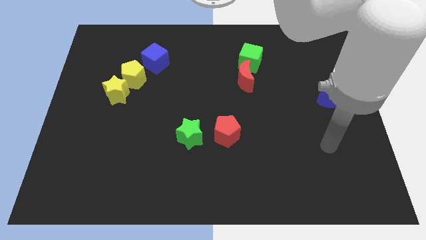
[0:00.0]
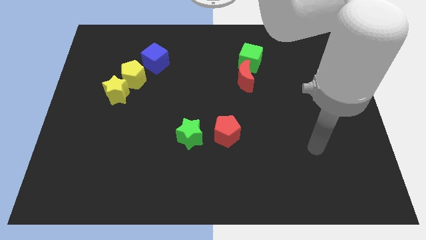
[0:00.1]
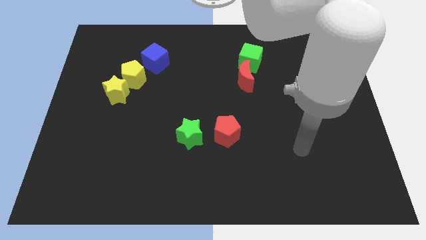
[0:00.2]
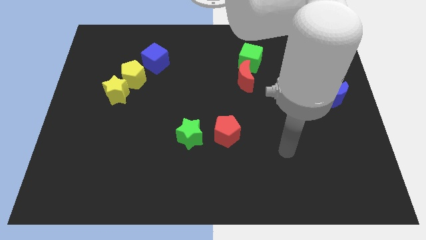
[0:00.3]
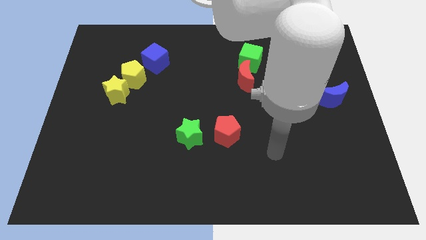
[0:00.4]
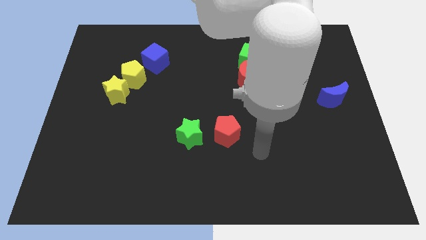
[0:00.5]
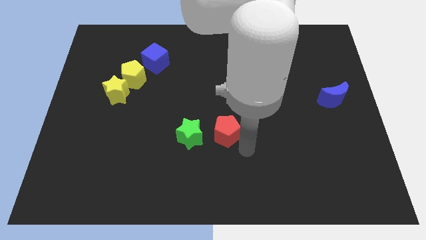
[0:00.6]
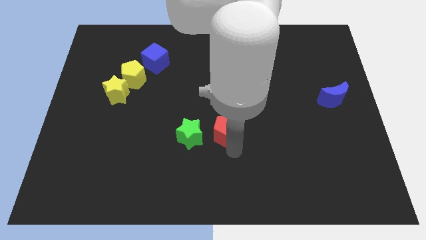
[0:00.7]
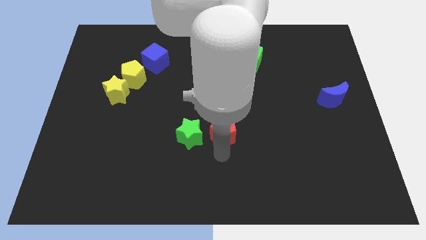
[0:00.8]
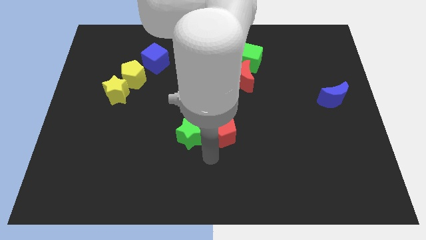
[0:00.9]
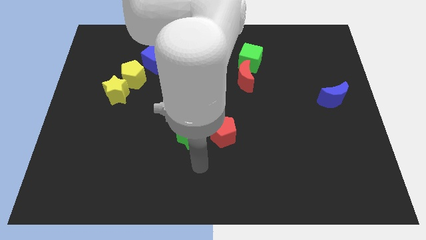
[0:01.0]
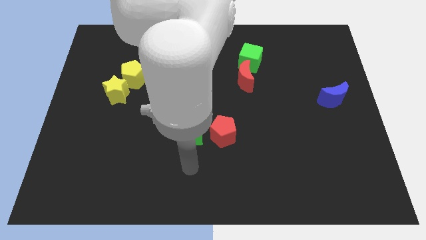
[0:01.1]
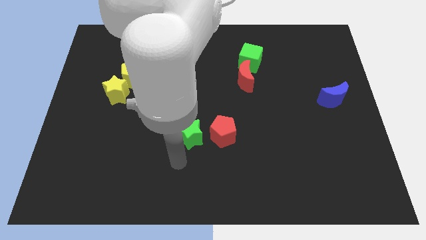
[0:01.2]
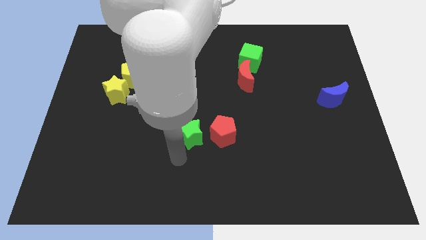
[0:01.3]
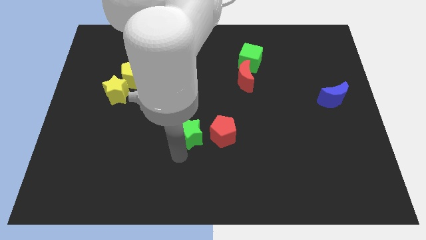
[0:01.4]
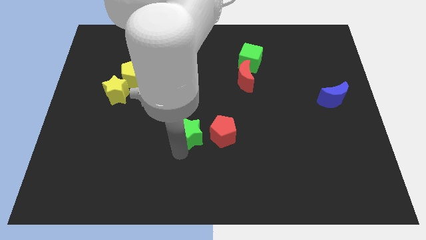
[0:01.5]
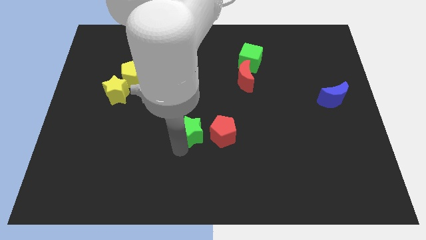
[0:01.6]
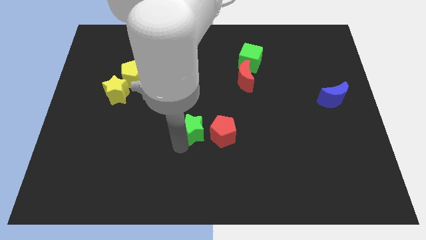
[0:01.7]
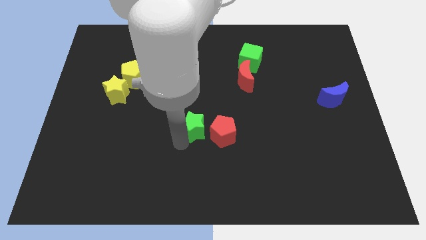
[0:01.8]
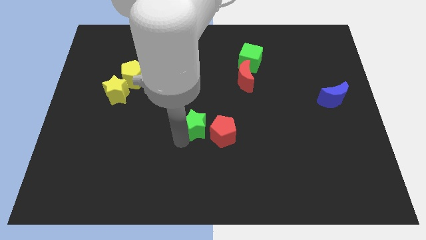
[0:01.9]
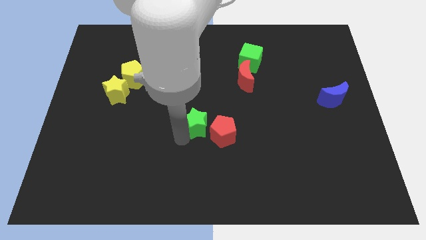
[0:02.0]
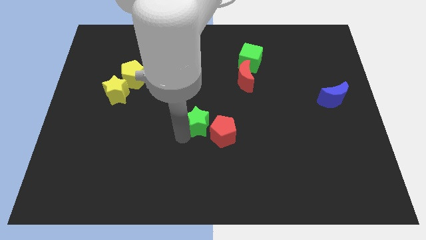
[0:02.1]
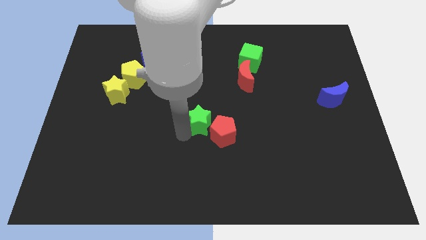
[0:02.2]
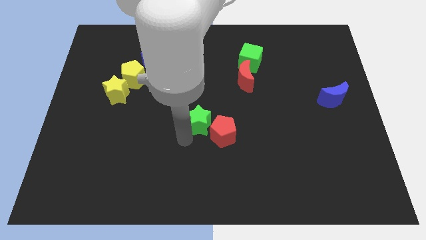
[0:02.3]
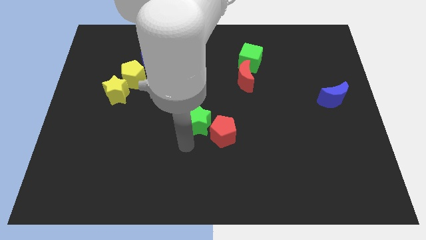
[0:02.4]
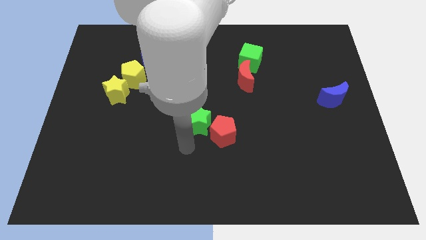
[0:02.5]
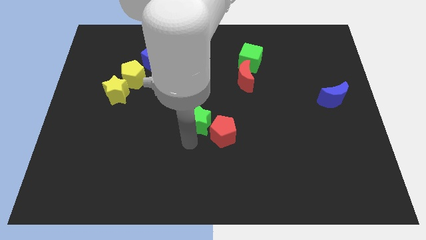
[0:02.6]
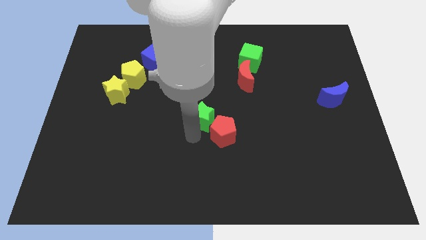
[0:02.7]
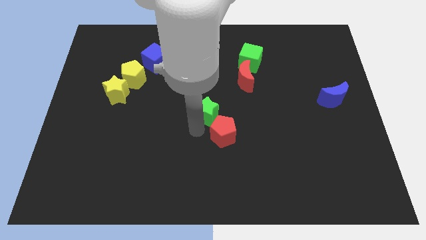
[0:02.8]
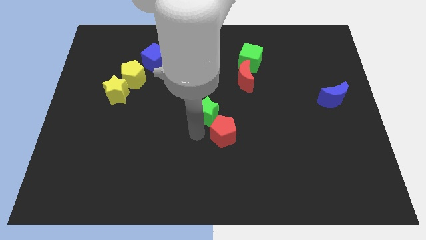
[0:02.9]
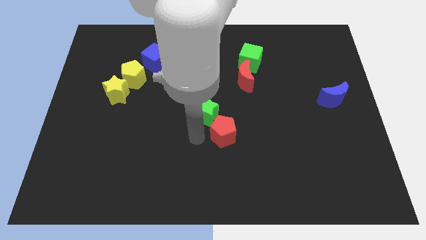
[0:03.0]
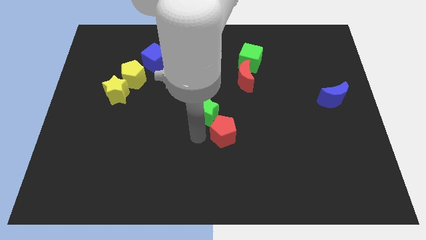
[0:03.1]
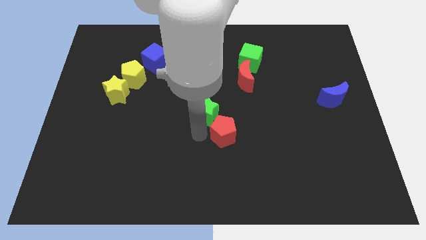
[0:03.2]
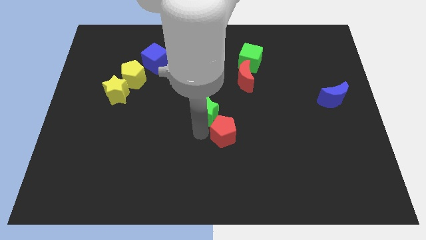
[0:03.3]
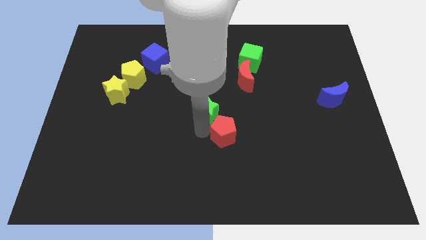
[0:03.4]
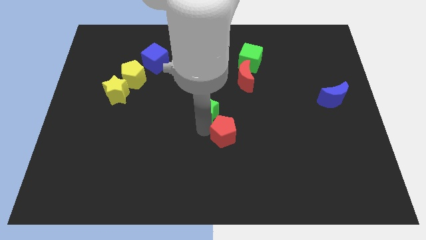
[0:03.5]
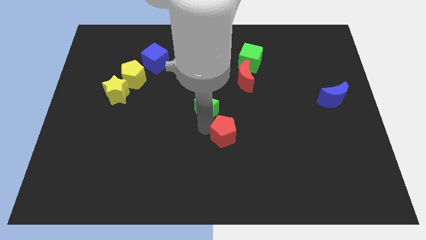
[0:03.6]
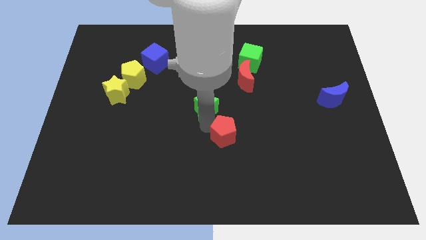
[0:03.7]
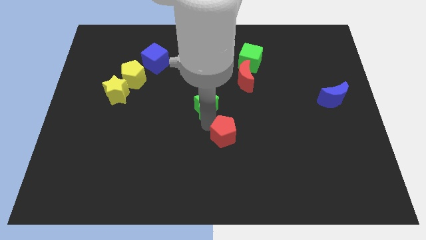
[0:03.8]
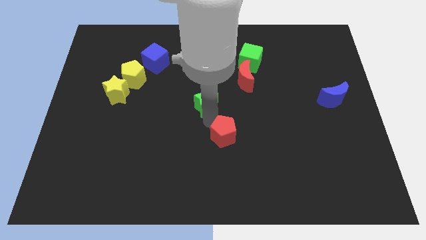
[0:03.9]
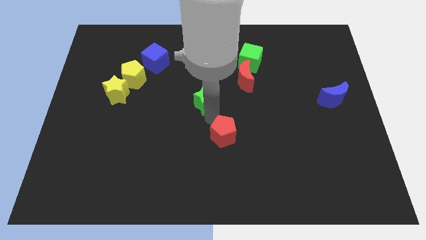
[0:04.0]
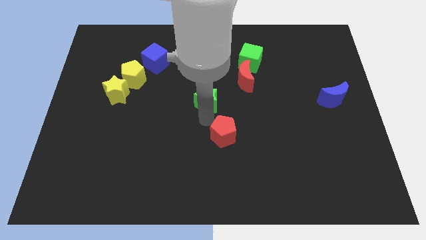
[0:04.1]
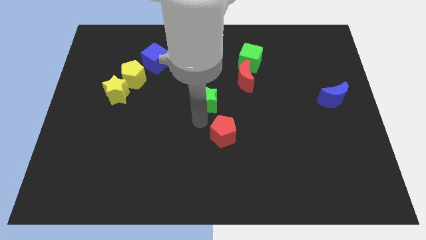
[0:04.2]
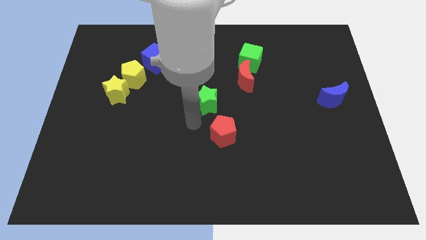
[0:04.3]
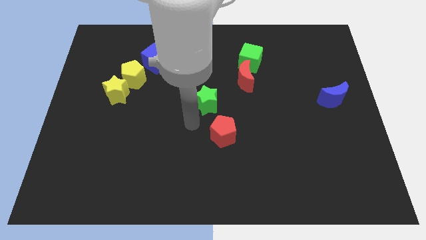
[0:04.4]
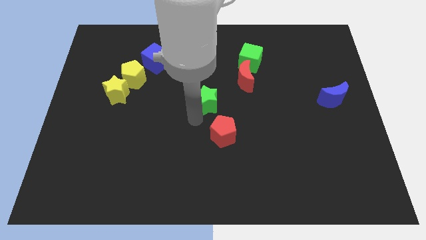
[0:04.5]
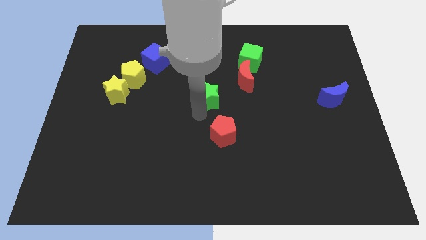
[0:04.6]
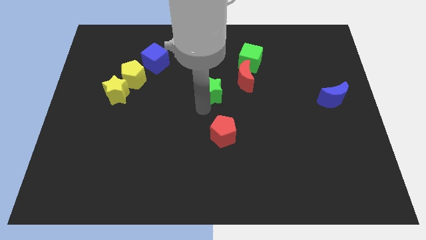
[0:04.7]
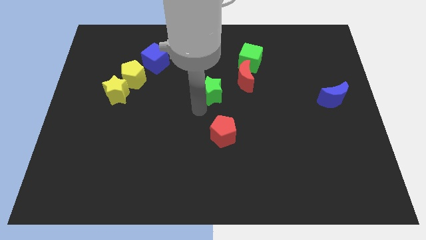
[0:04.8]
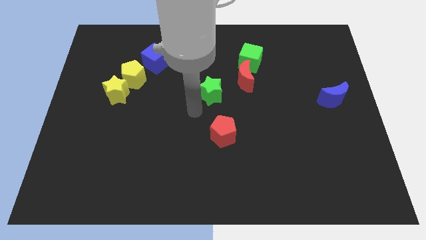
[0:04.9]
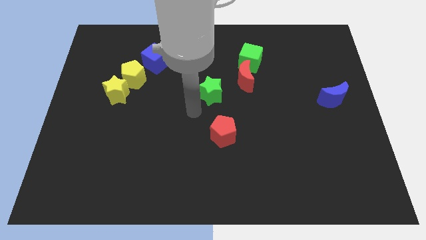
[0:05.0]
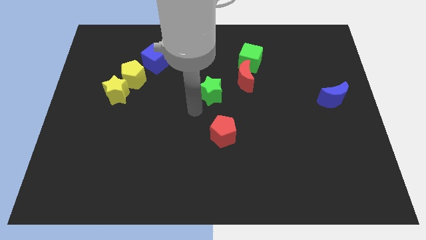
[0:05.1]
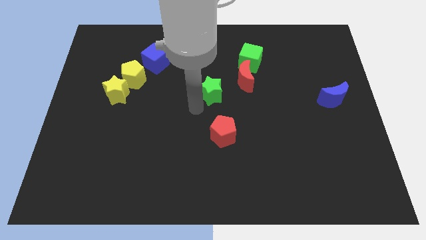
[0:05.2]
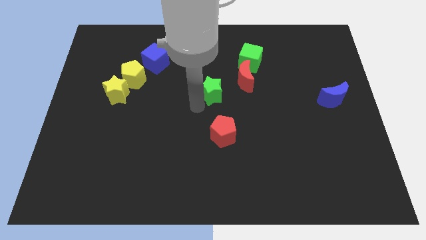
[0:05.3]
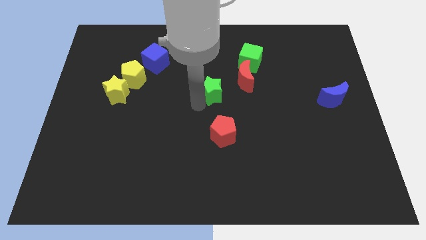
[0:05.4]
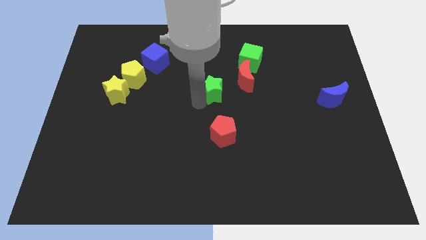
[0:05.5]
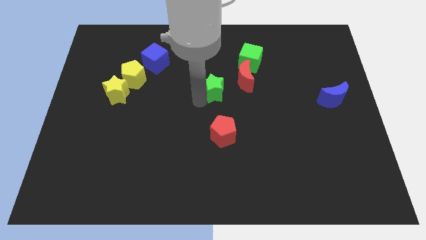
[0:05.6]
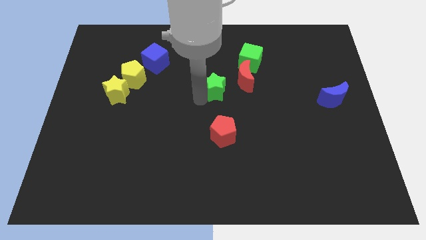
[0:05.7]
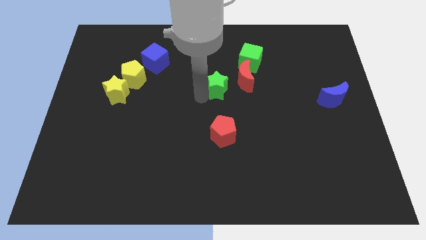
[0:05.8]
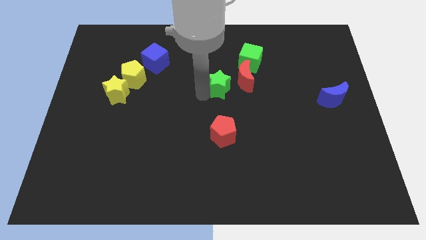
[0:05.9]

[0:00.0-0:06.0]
move the green star to the bottom left of the green cube

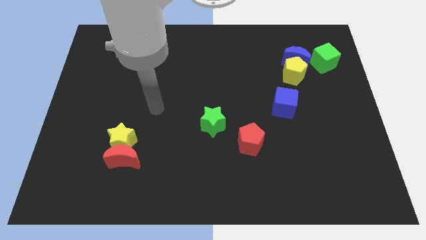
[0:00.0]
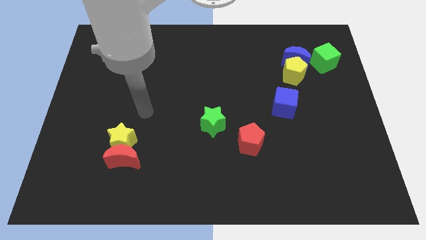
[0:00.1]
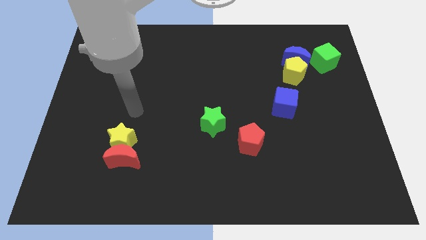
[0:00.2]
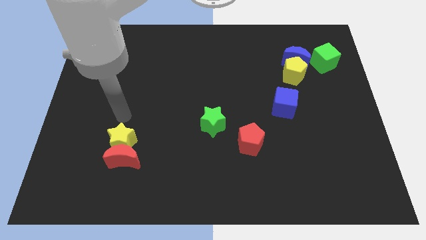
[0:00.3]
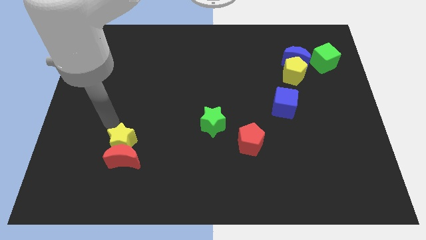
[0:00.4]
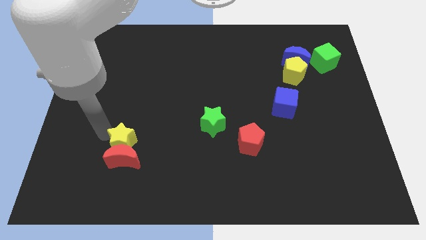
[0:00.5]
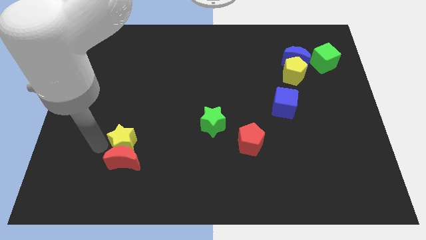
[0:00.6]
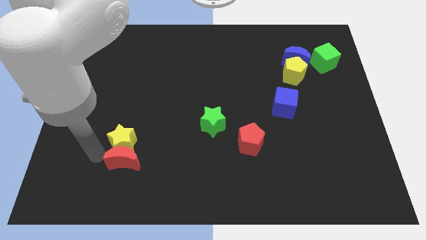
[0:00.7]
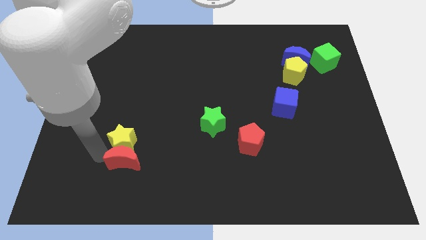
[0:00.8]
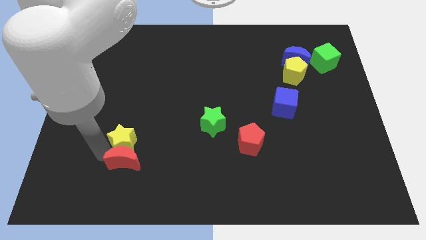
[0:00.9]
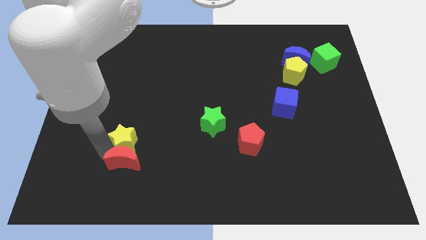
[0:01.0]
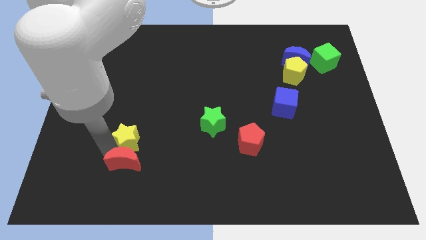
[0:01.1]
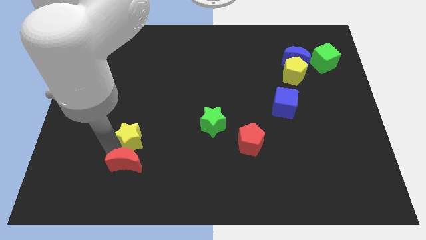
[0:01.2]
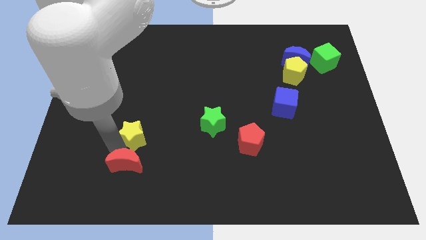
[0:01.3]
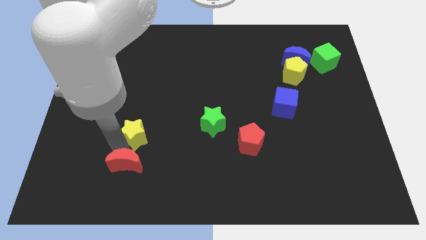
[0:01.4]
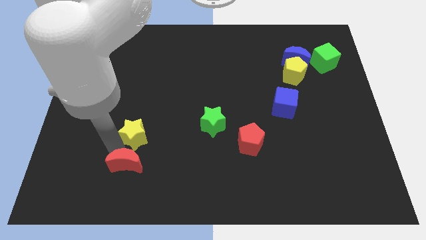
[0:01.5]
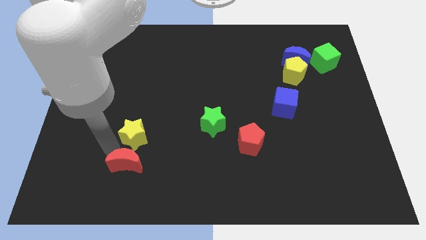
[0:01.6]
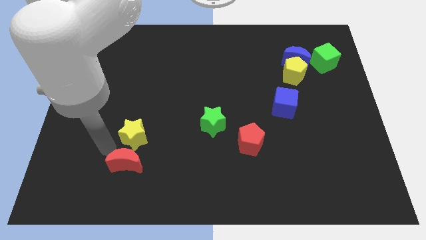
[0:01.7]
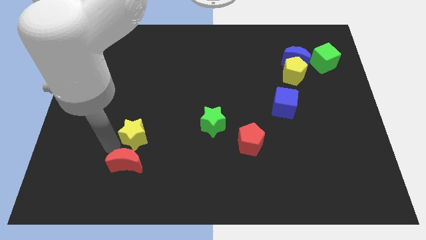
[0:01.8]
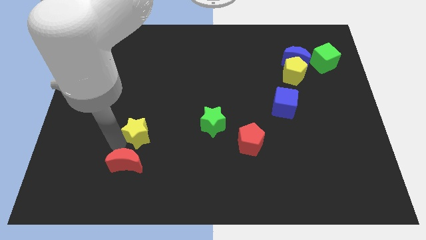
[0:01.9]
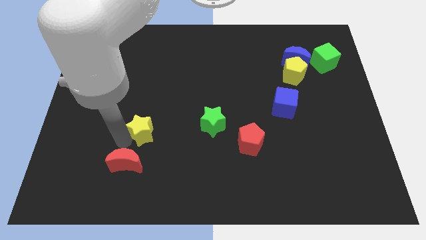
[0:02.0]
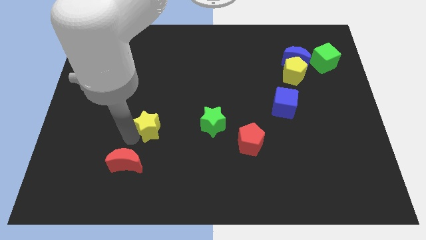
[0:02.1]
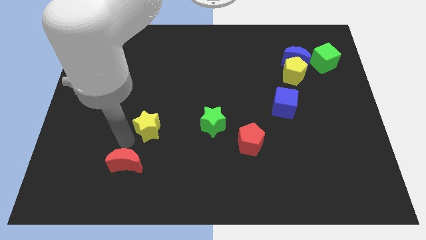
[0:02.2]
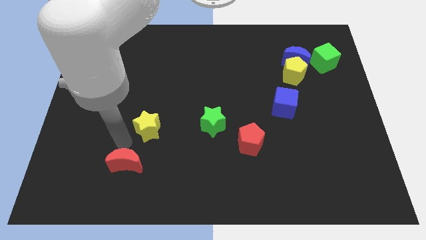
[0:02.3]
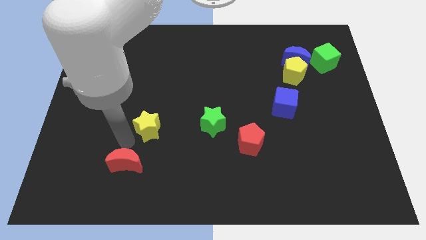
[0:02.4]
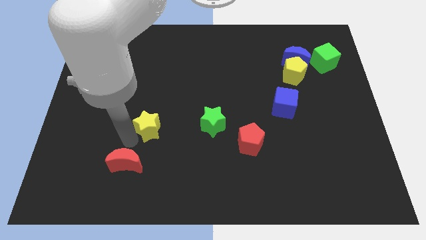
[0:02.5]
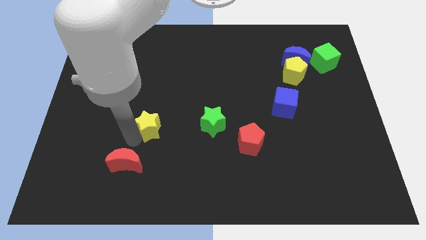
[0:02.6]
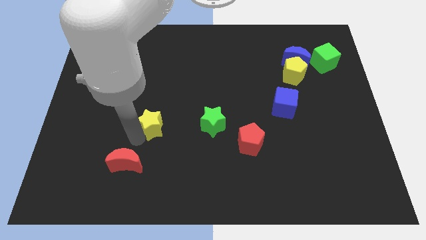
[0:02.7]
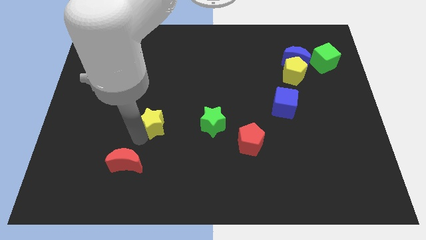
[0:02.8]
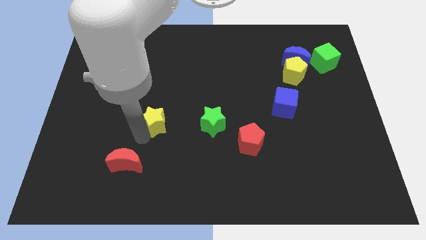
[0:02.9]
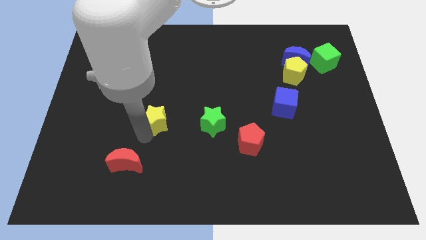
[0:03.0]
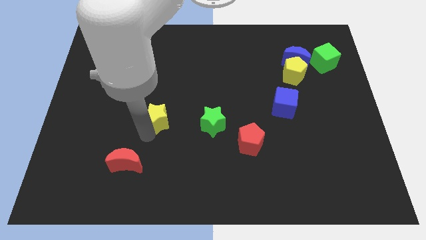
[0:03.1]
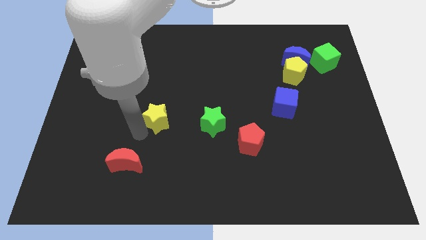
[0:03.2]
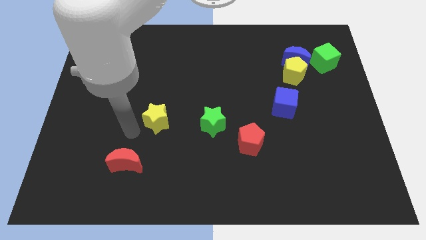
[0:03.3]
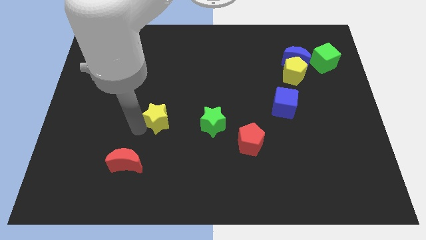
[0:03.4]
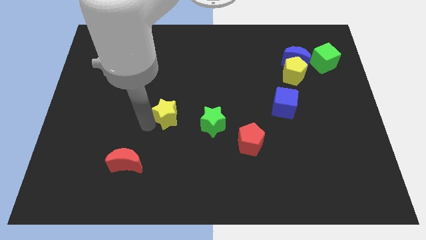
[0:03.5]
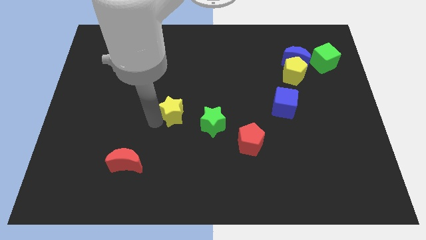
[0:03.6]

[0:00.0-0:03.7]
slide the yellow star to the top left of the green star
